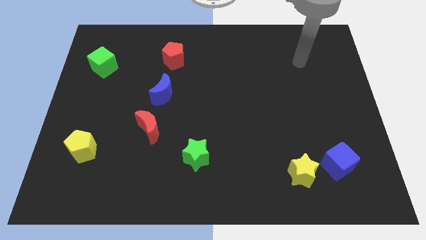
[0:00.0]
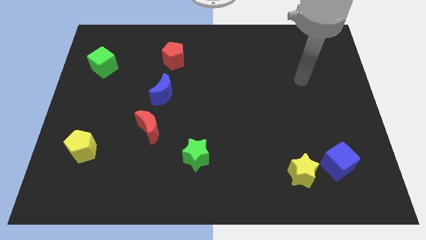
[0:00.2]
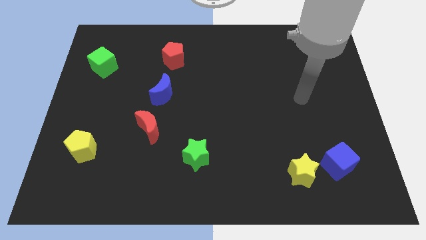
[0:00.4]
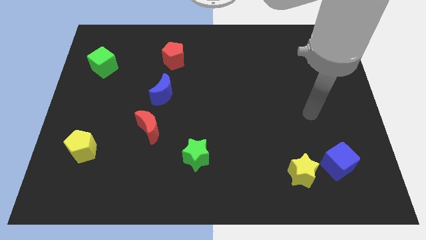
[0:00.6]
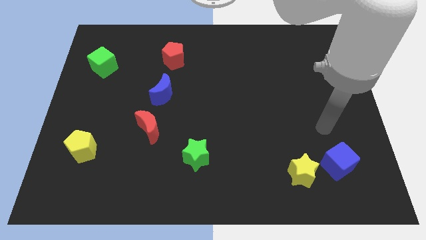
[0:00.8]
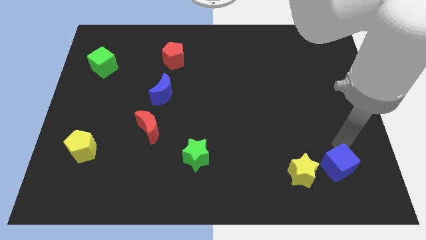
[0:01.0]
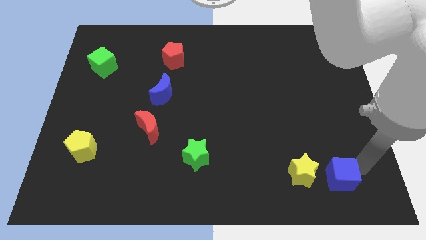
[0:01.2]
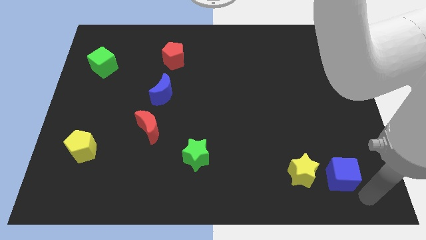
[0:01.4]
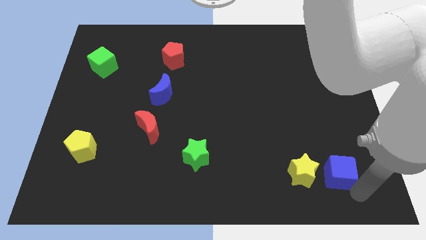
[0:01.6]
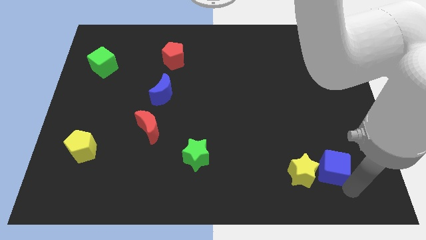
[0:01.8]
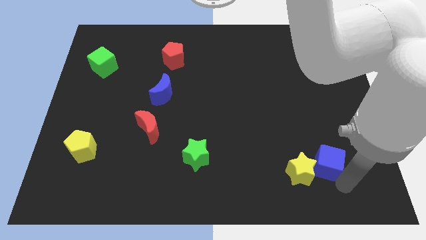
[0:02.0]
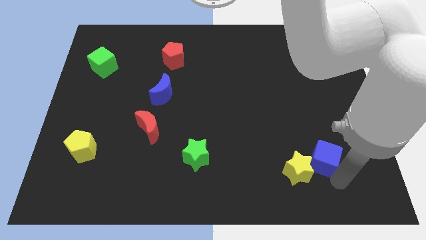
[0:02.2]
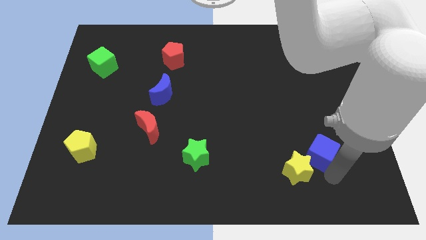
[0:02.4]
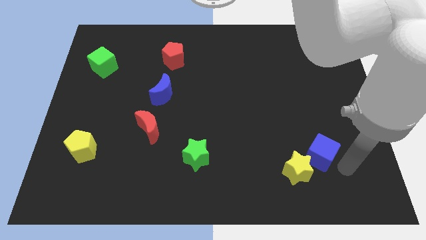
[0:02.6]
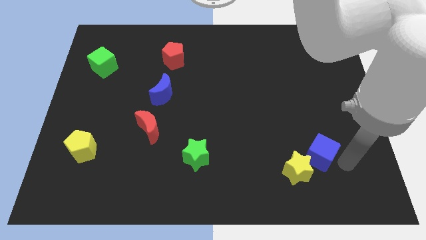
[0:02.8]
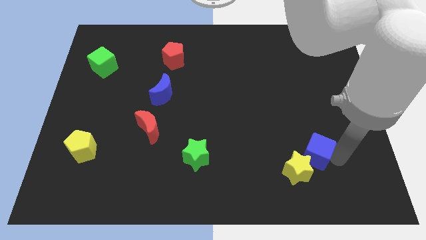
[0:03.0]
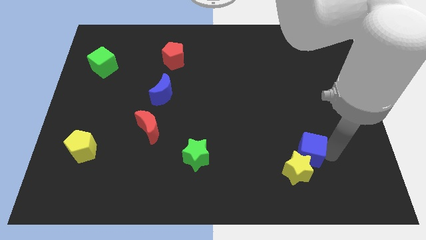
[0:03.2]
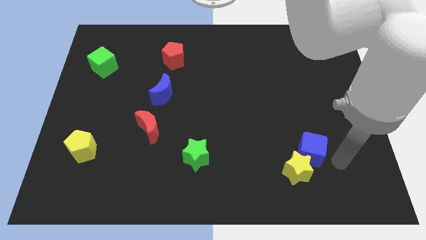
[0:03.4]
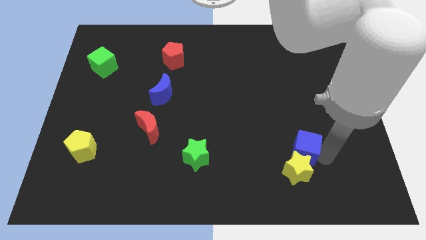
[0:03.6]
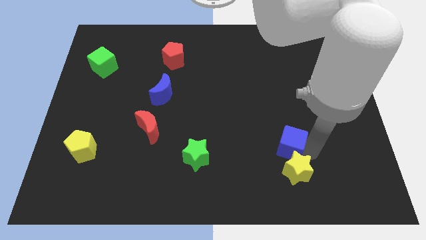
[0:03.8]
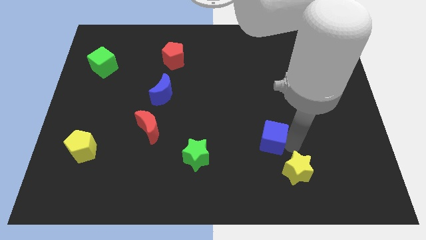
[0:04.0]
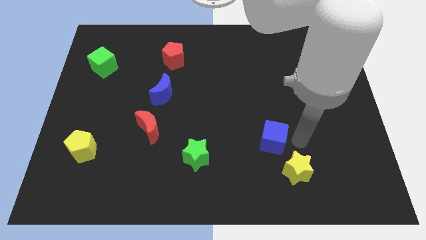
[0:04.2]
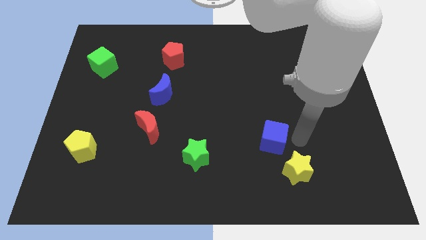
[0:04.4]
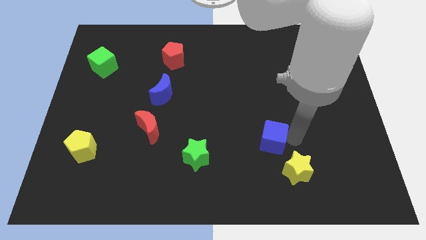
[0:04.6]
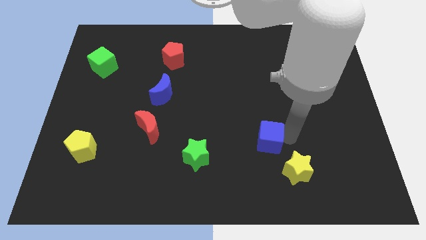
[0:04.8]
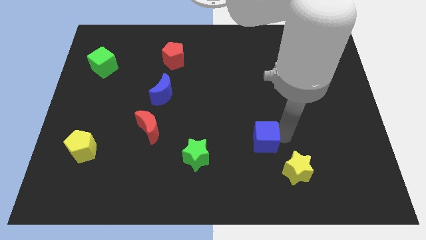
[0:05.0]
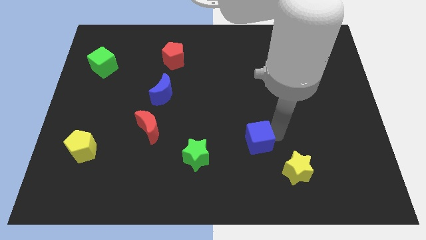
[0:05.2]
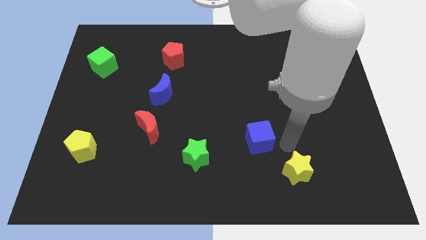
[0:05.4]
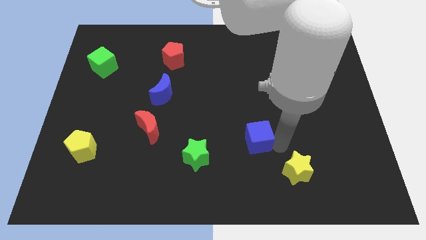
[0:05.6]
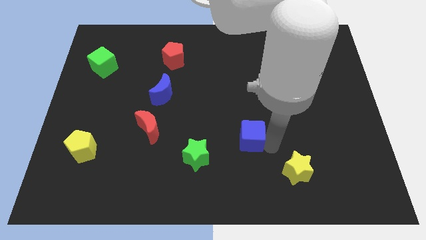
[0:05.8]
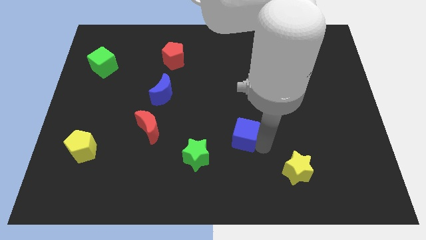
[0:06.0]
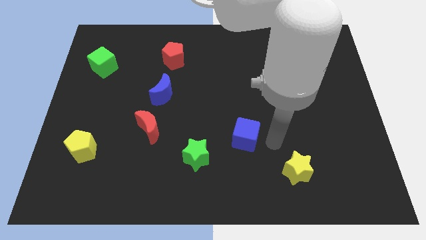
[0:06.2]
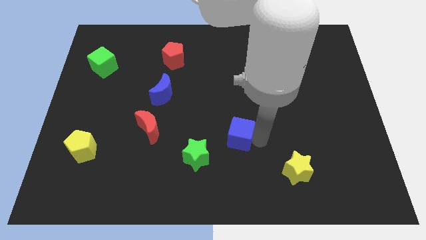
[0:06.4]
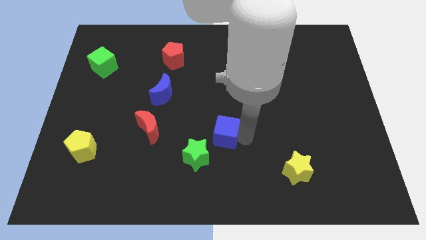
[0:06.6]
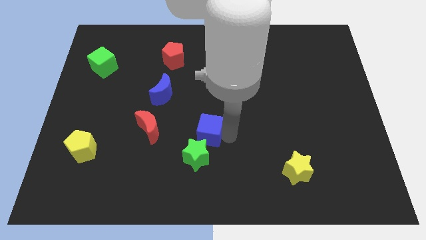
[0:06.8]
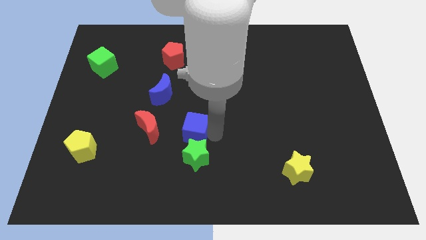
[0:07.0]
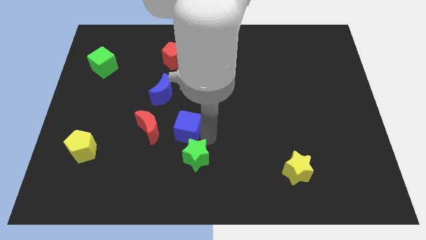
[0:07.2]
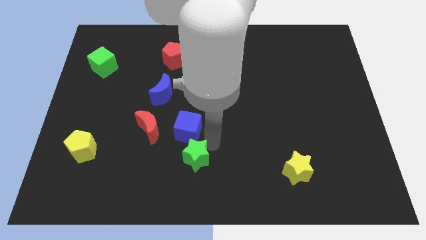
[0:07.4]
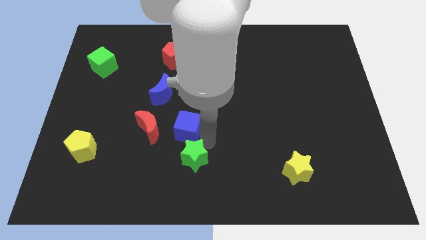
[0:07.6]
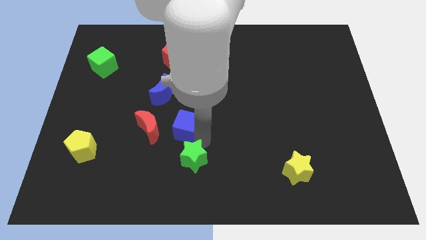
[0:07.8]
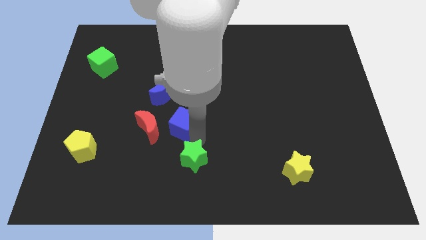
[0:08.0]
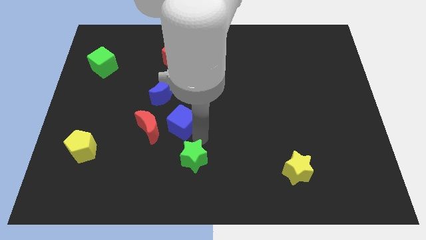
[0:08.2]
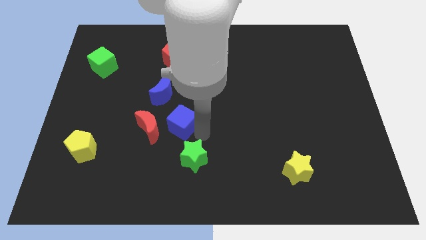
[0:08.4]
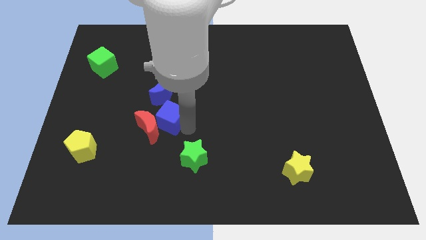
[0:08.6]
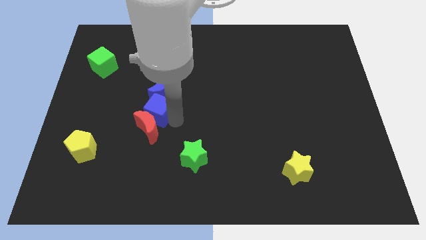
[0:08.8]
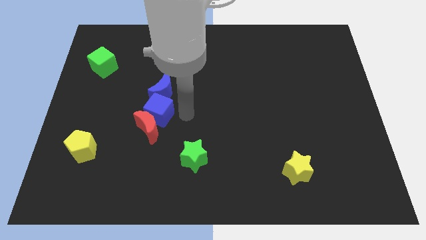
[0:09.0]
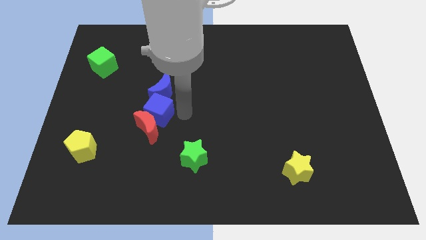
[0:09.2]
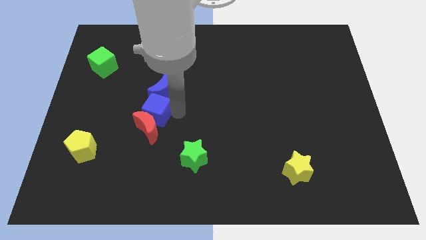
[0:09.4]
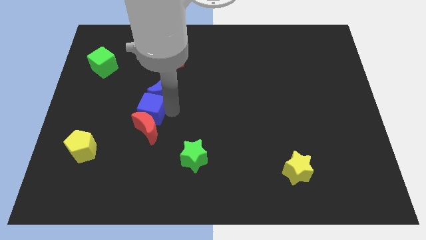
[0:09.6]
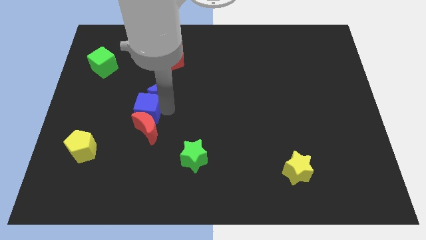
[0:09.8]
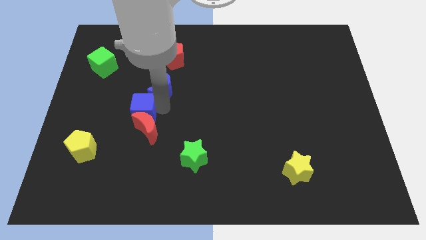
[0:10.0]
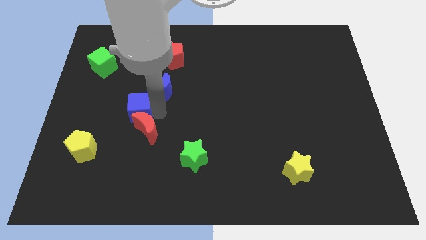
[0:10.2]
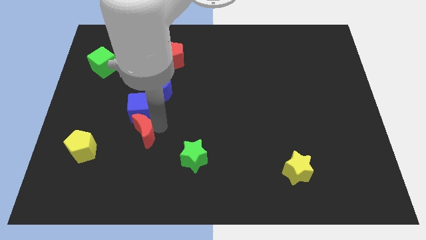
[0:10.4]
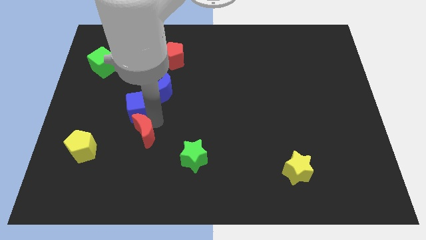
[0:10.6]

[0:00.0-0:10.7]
push the blue cube to the left side of the blue moon

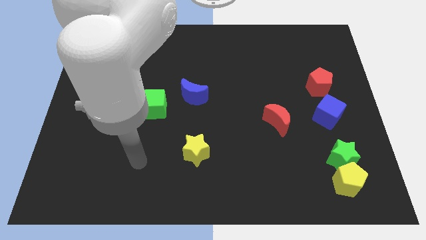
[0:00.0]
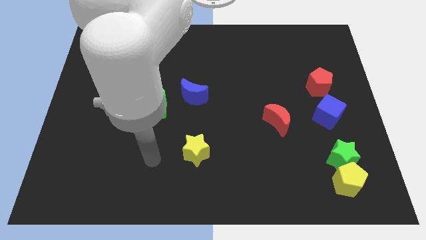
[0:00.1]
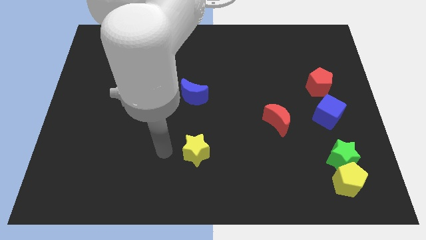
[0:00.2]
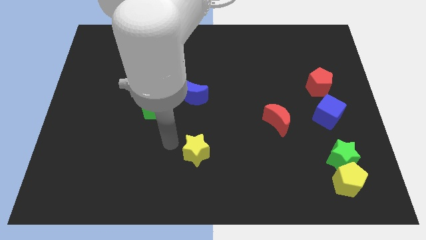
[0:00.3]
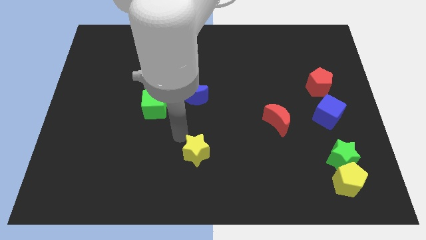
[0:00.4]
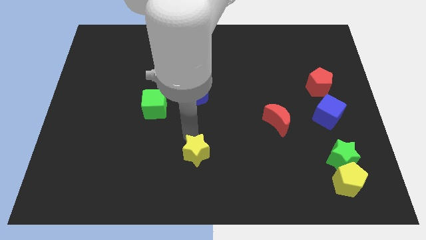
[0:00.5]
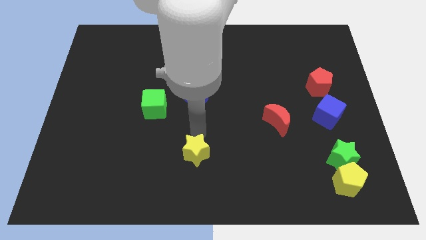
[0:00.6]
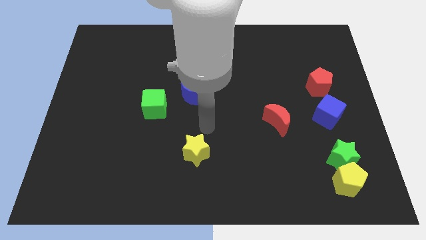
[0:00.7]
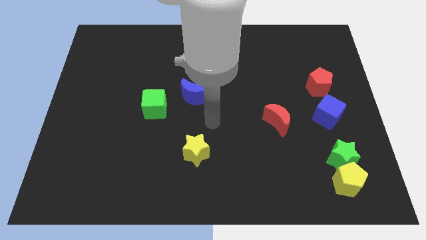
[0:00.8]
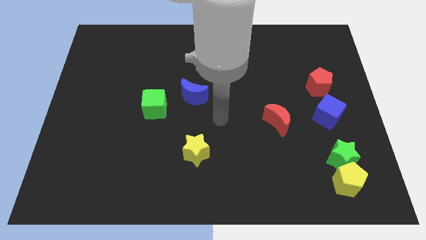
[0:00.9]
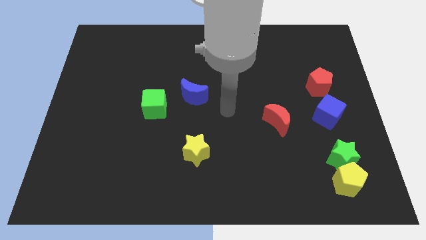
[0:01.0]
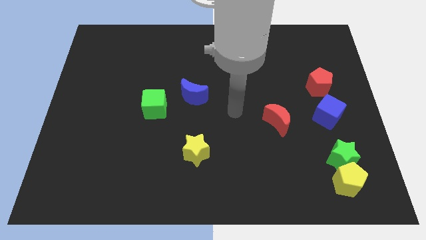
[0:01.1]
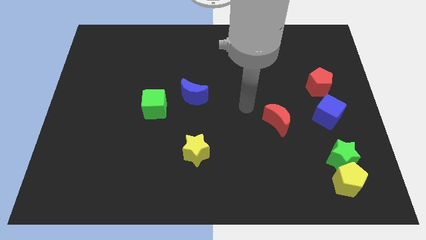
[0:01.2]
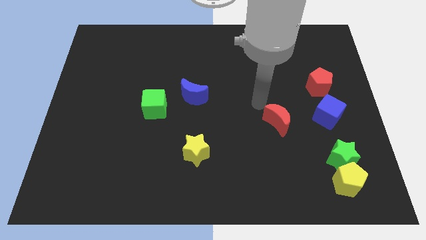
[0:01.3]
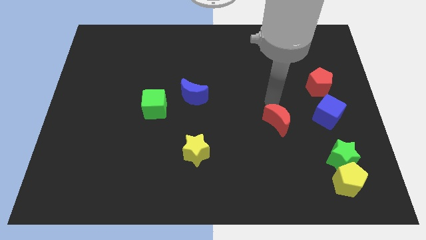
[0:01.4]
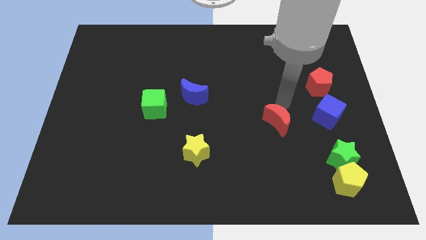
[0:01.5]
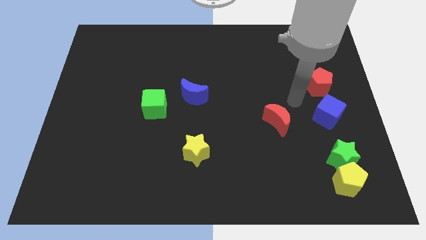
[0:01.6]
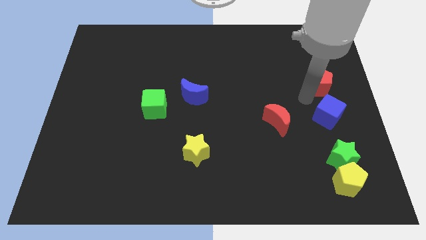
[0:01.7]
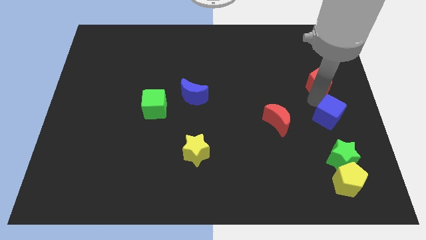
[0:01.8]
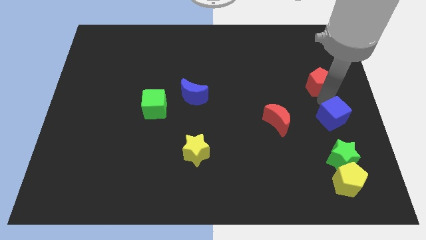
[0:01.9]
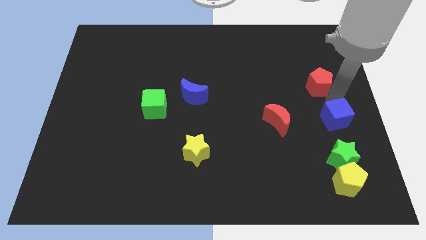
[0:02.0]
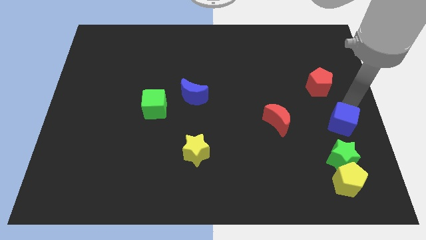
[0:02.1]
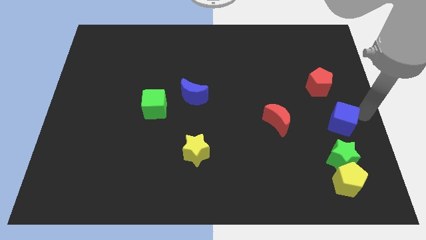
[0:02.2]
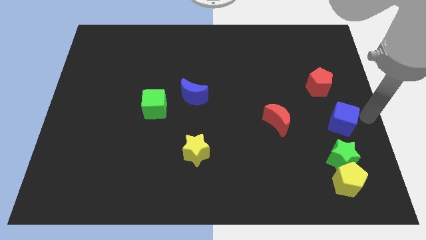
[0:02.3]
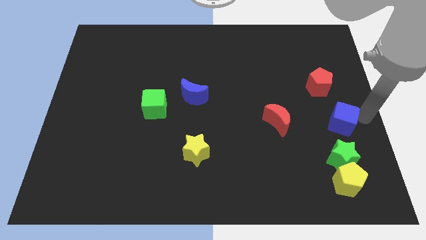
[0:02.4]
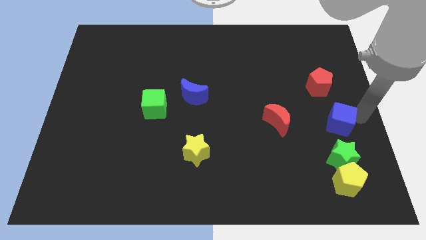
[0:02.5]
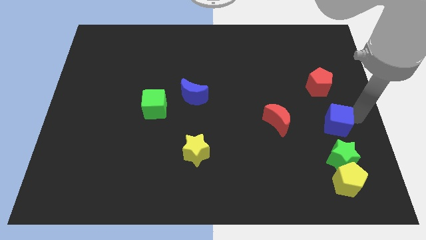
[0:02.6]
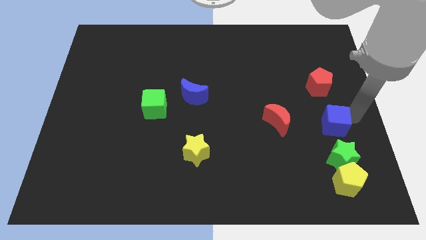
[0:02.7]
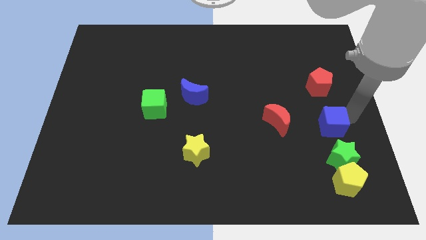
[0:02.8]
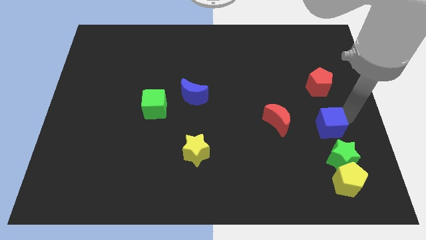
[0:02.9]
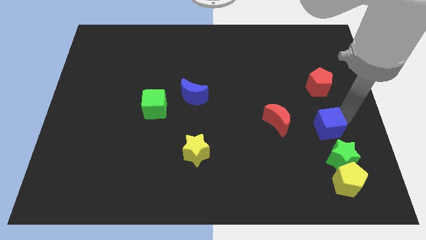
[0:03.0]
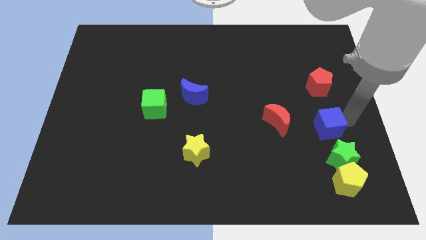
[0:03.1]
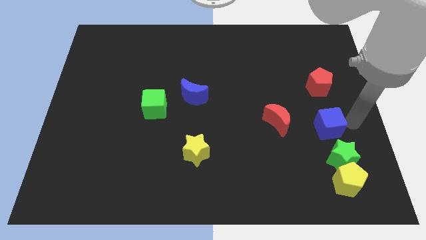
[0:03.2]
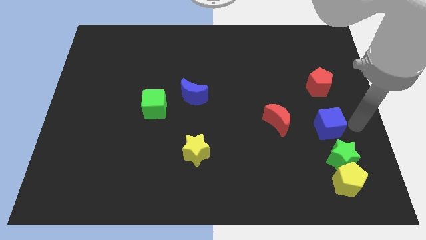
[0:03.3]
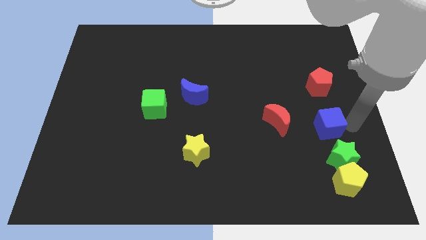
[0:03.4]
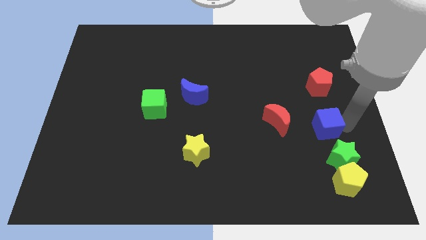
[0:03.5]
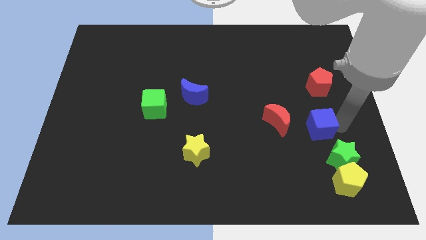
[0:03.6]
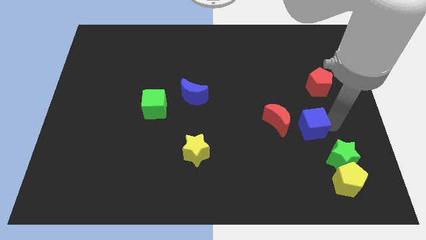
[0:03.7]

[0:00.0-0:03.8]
move the blue cube to the bottom right side of the red moon
